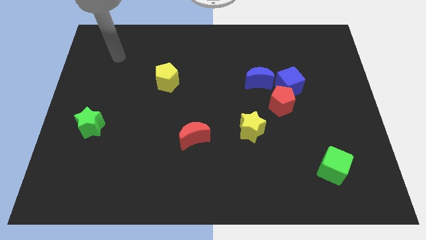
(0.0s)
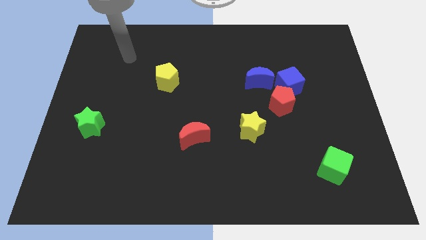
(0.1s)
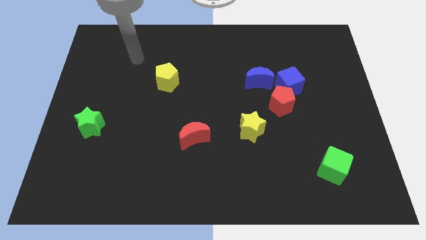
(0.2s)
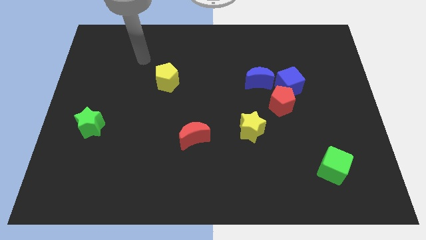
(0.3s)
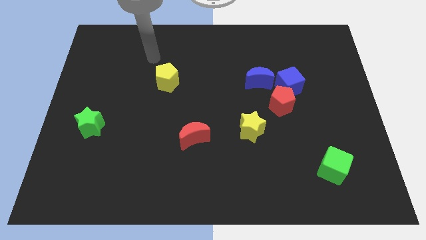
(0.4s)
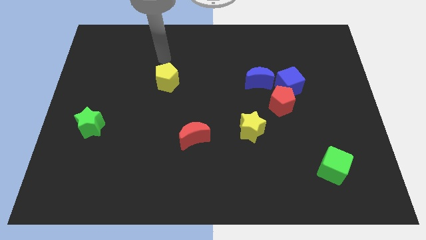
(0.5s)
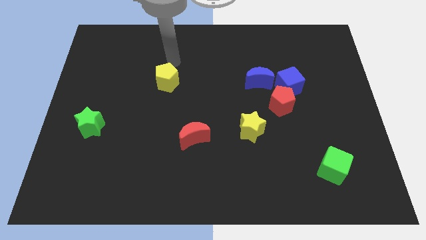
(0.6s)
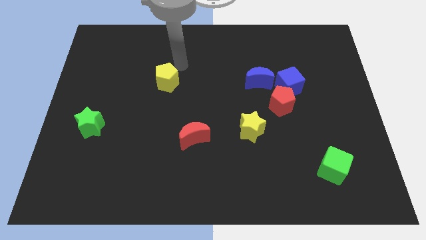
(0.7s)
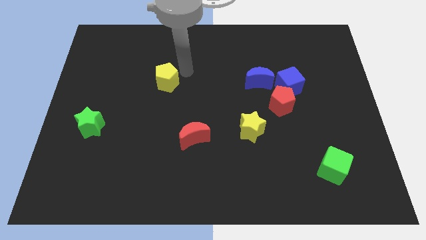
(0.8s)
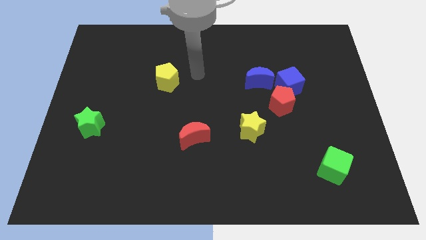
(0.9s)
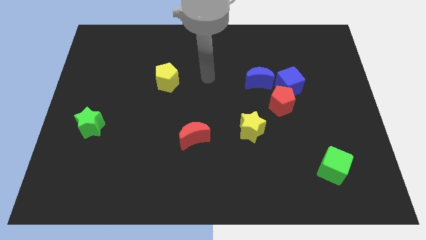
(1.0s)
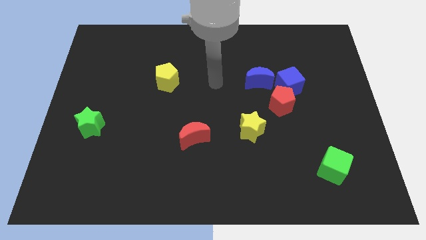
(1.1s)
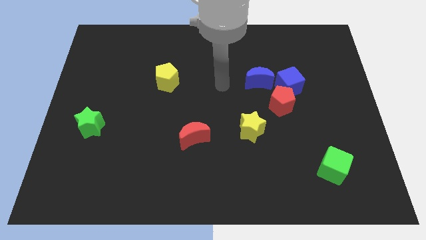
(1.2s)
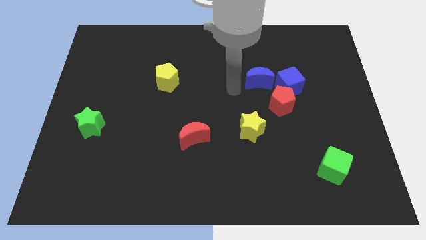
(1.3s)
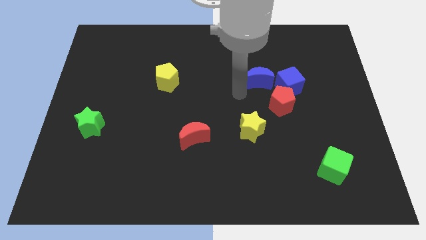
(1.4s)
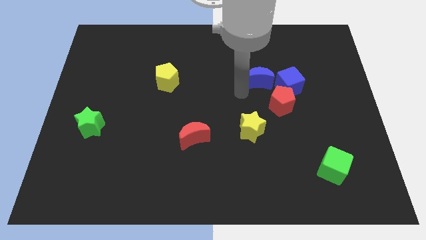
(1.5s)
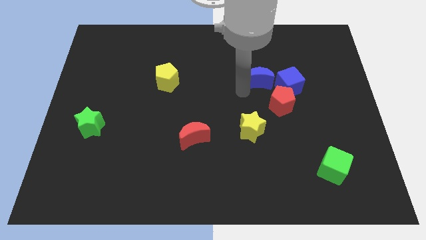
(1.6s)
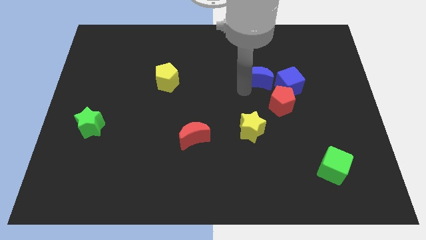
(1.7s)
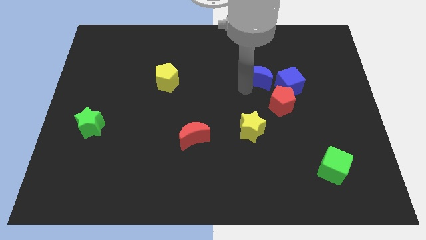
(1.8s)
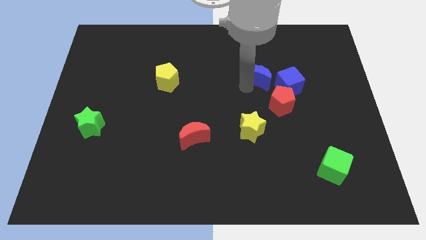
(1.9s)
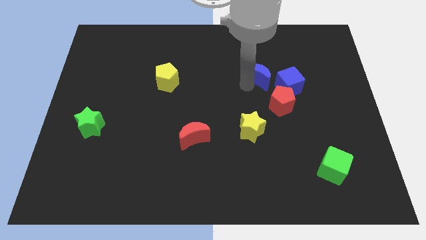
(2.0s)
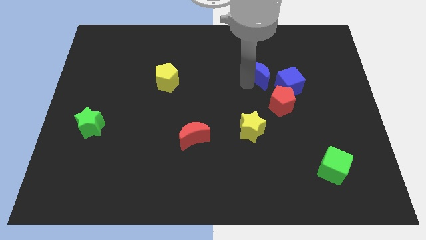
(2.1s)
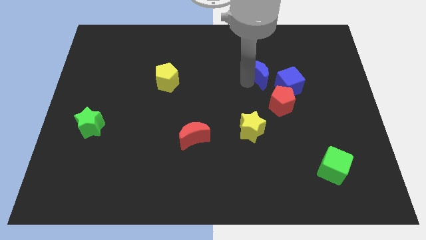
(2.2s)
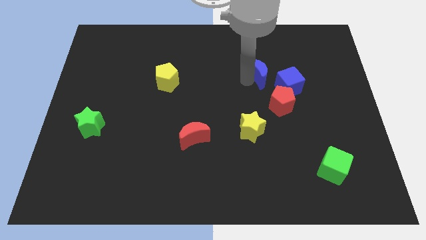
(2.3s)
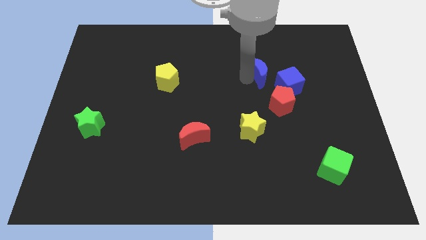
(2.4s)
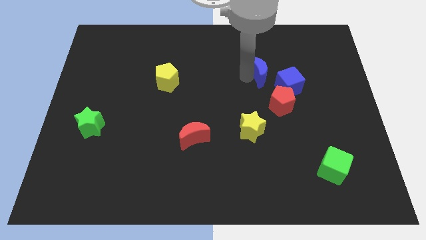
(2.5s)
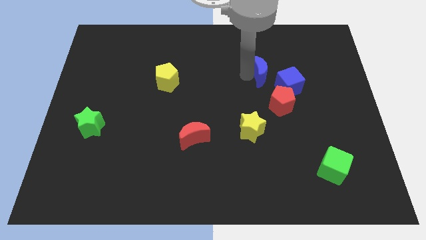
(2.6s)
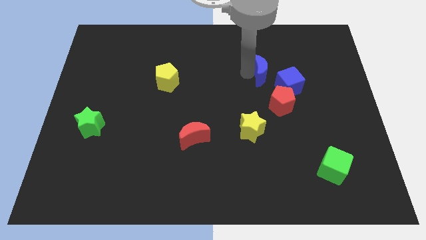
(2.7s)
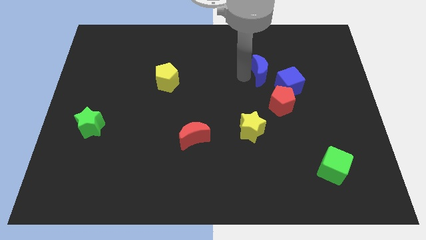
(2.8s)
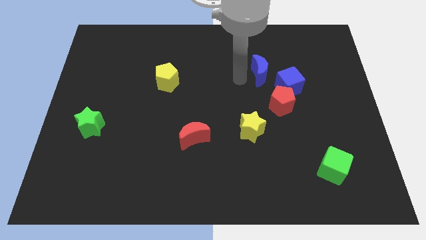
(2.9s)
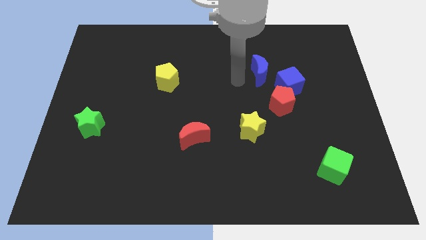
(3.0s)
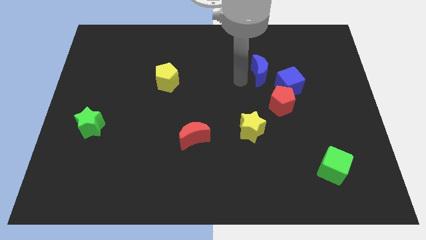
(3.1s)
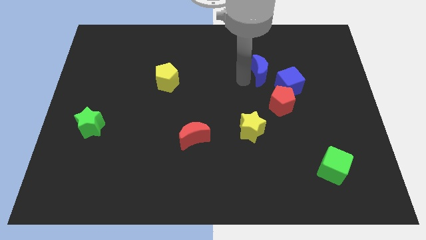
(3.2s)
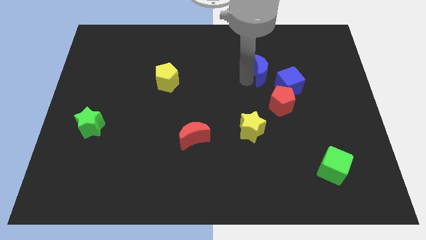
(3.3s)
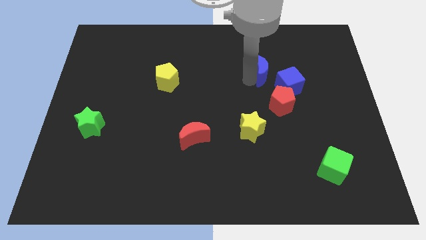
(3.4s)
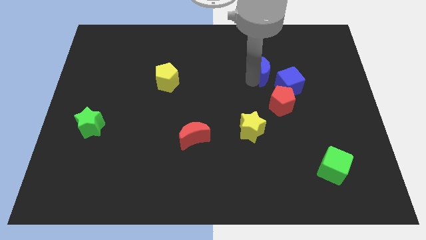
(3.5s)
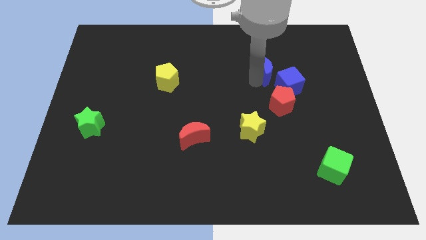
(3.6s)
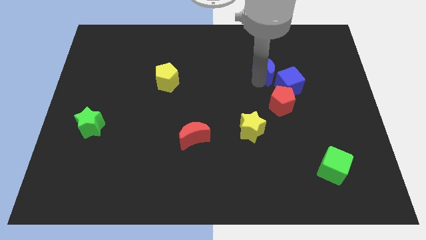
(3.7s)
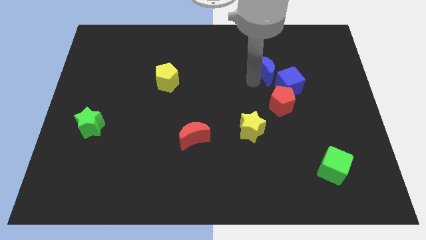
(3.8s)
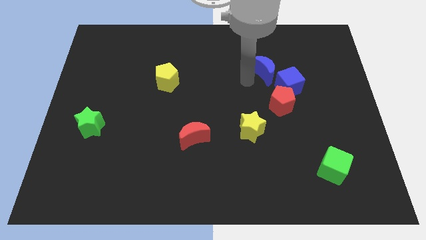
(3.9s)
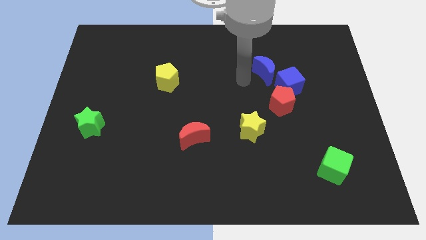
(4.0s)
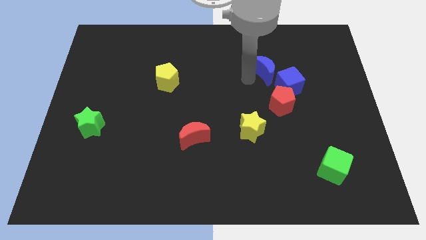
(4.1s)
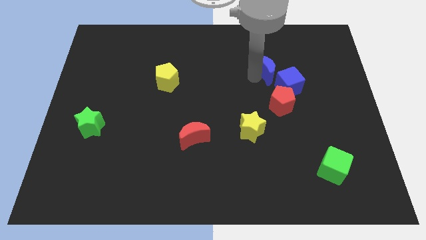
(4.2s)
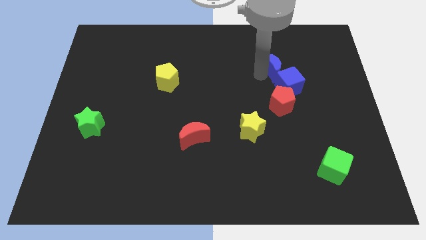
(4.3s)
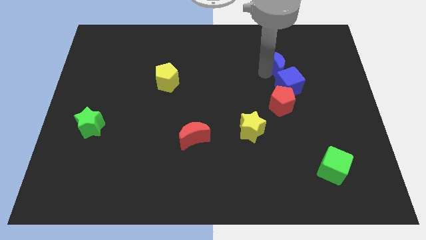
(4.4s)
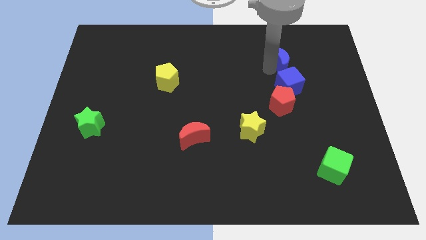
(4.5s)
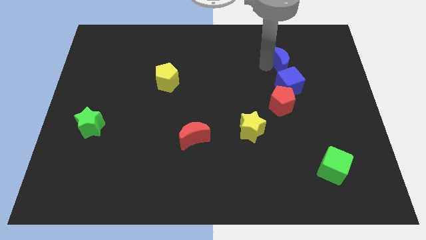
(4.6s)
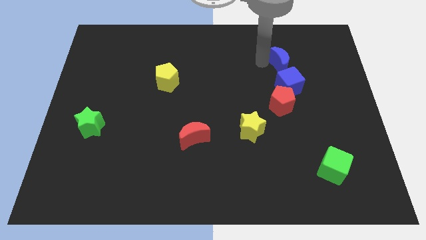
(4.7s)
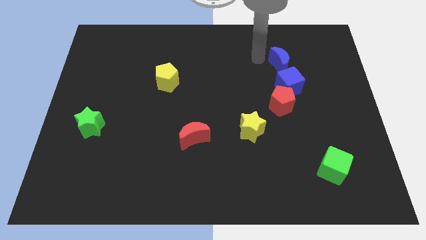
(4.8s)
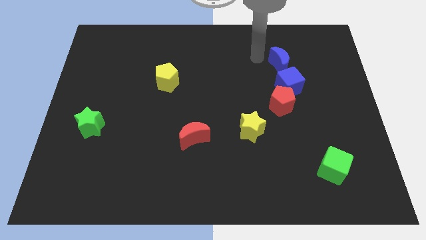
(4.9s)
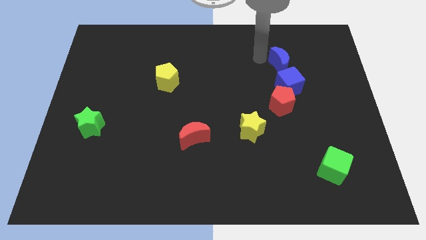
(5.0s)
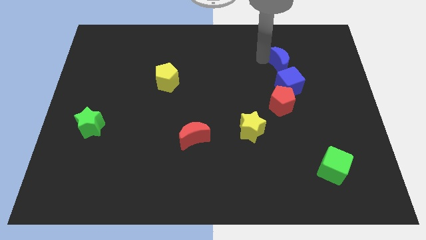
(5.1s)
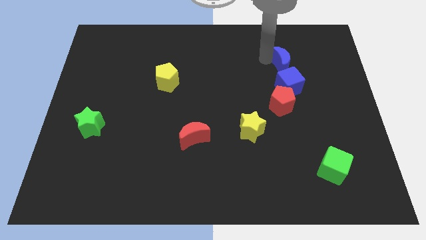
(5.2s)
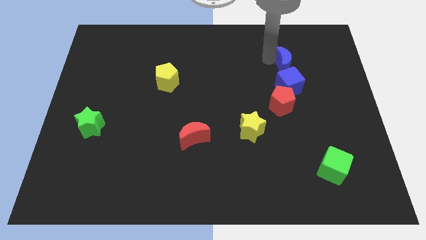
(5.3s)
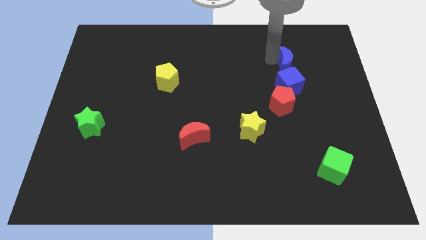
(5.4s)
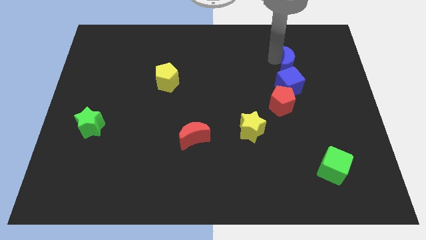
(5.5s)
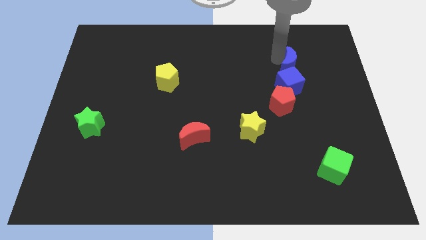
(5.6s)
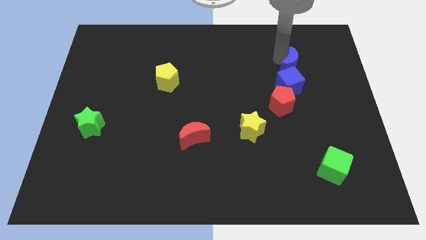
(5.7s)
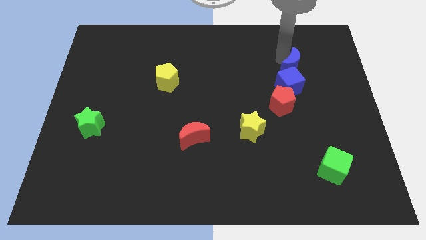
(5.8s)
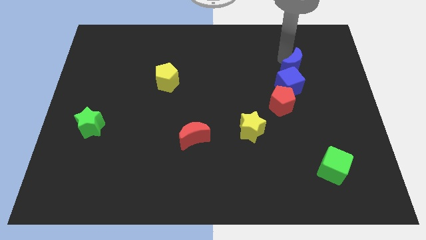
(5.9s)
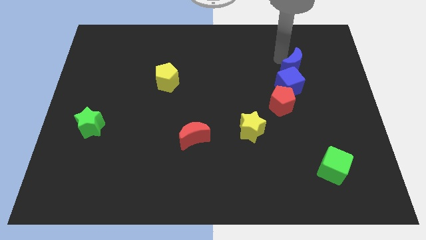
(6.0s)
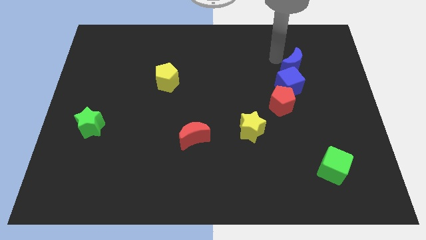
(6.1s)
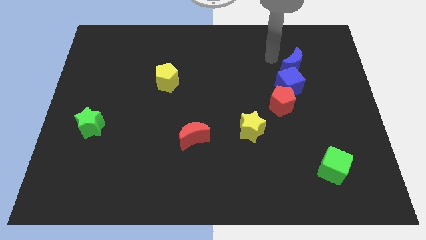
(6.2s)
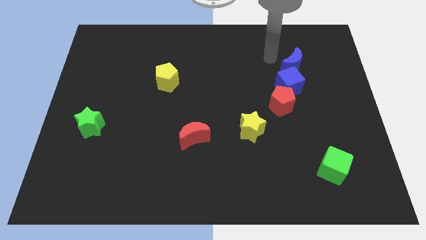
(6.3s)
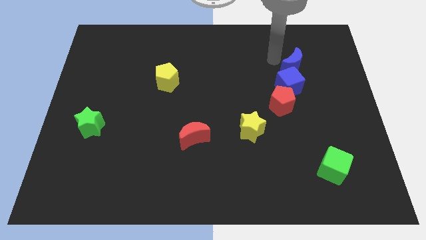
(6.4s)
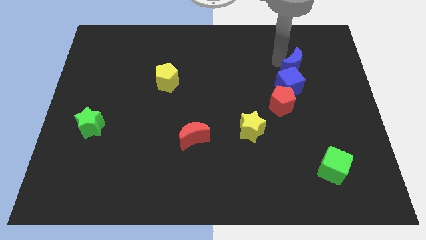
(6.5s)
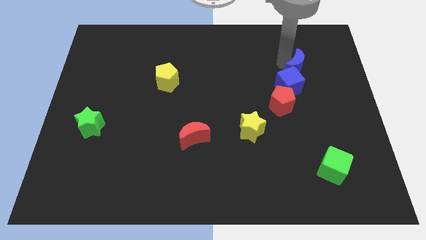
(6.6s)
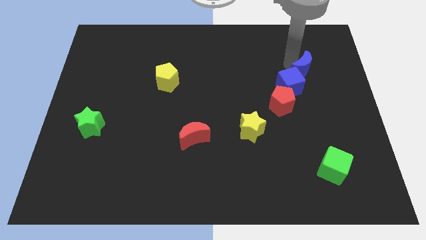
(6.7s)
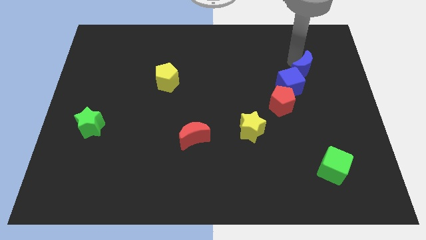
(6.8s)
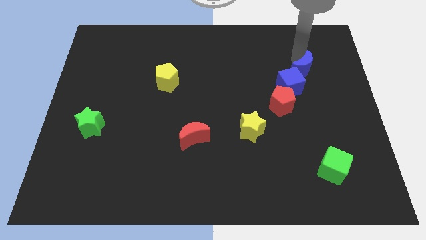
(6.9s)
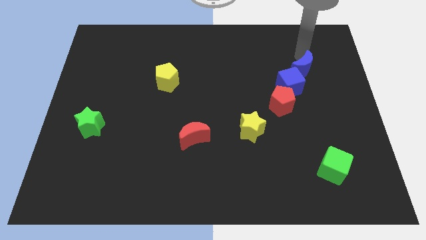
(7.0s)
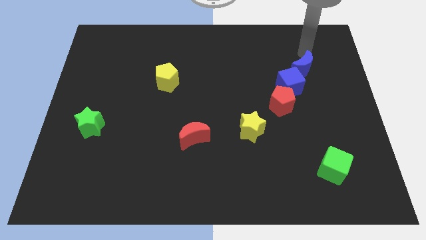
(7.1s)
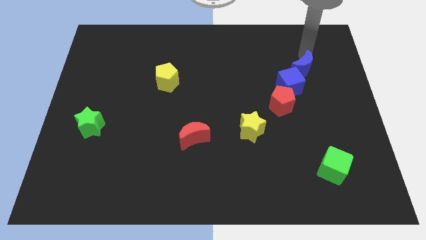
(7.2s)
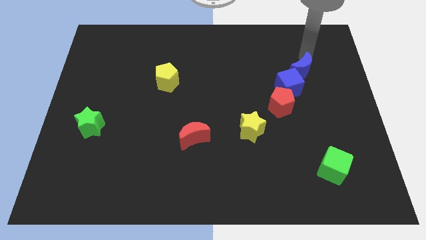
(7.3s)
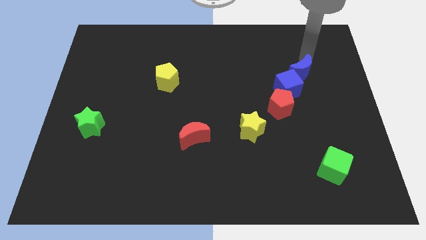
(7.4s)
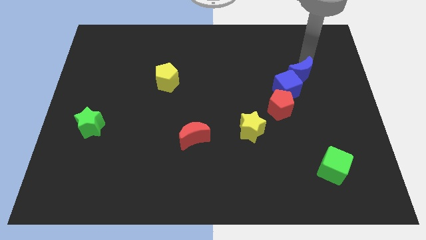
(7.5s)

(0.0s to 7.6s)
move the blue moon to the top right side of the red pentagon
